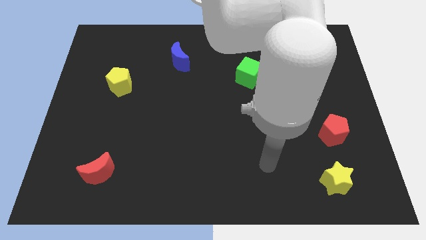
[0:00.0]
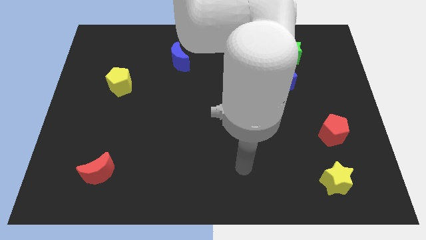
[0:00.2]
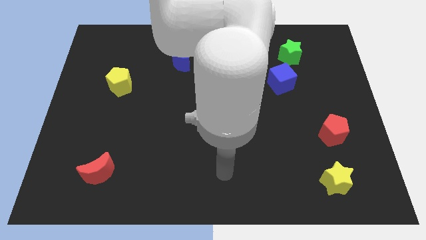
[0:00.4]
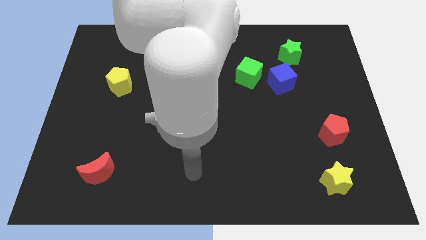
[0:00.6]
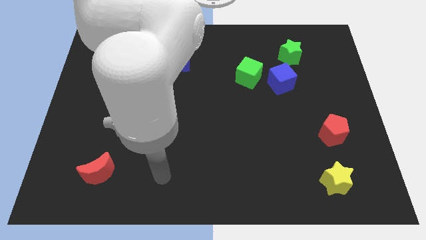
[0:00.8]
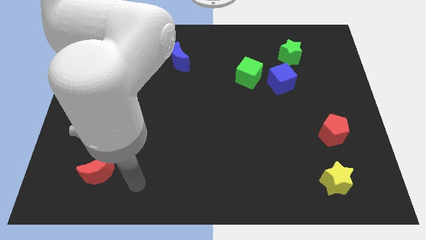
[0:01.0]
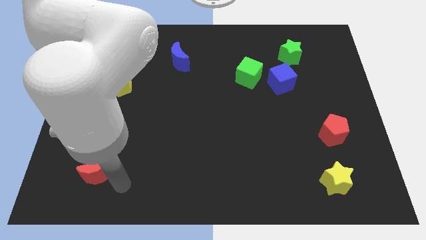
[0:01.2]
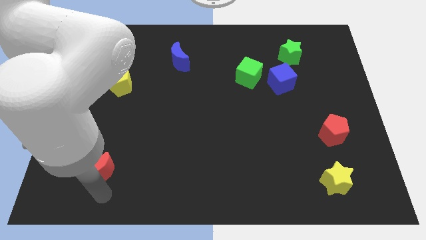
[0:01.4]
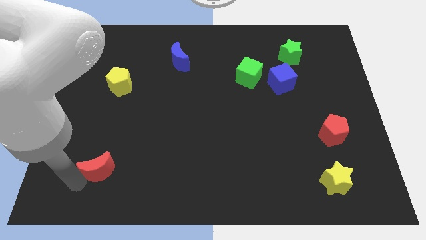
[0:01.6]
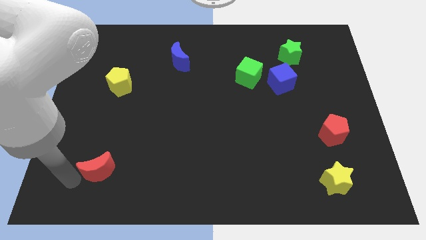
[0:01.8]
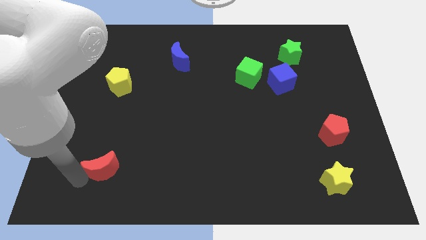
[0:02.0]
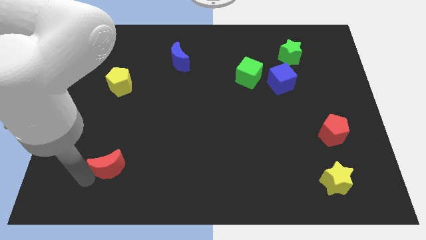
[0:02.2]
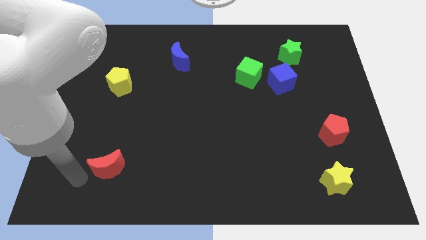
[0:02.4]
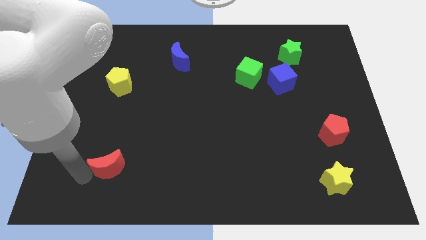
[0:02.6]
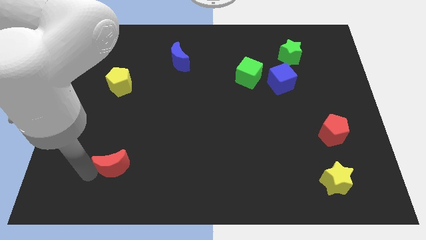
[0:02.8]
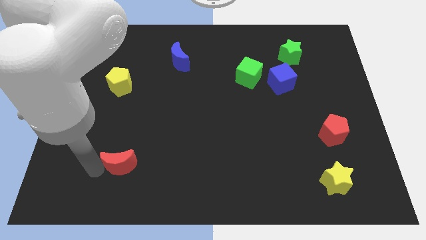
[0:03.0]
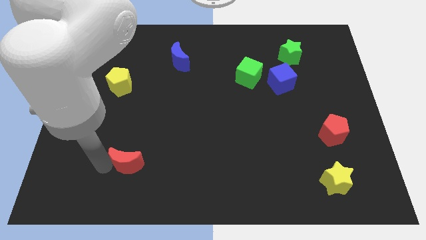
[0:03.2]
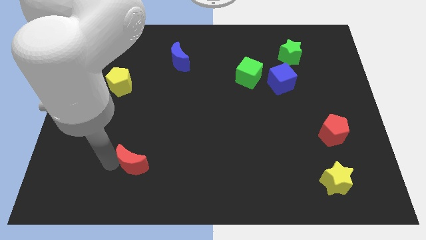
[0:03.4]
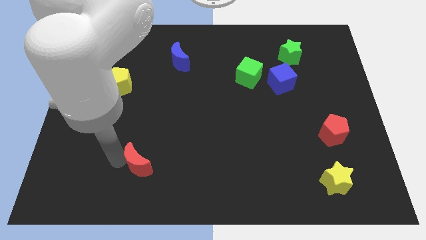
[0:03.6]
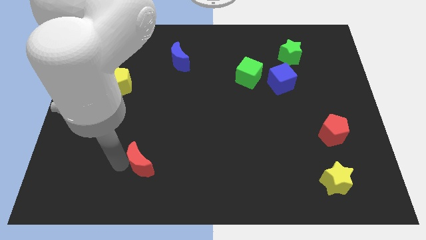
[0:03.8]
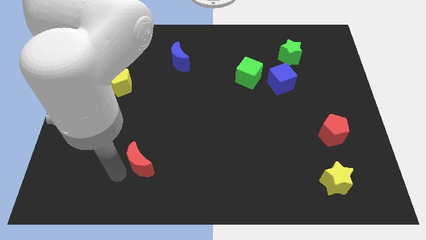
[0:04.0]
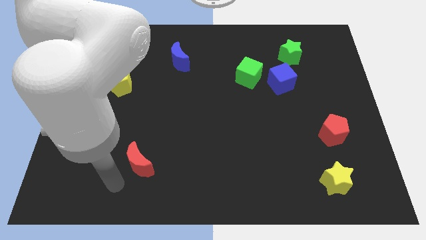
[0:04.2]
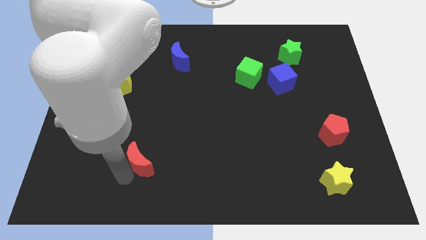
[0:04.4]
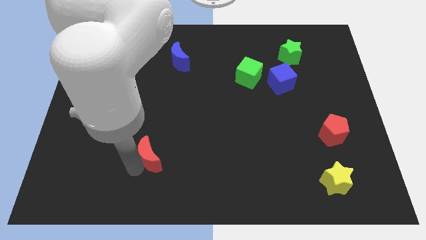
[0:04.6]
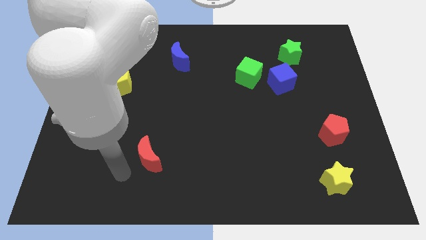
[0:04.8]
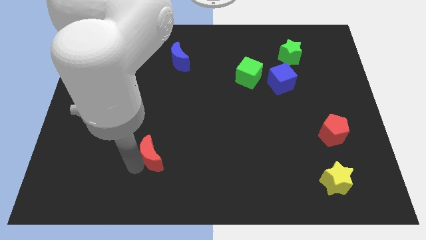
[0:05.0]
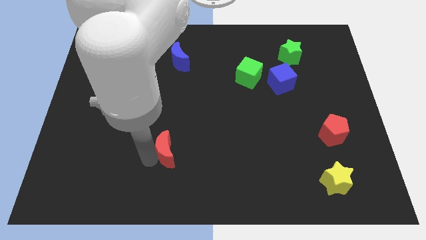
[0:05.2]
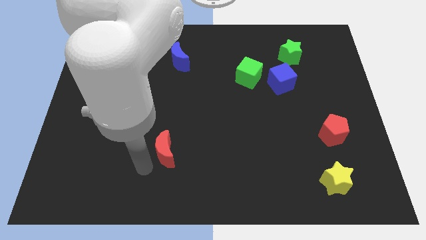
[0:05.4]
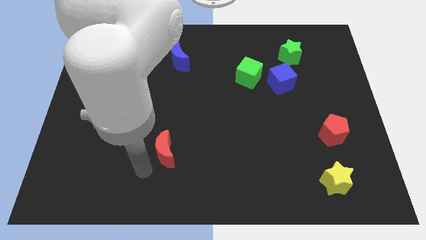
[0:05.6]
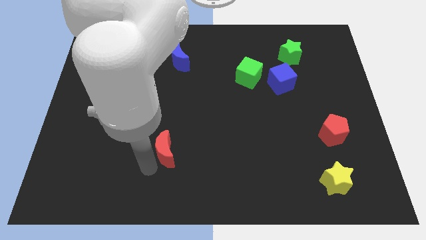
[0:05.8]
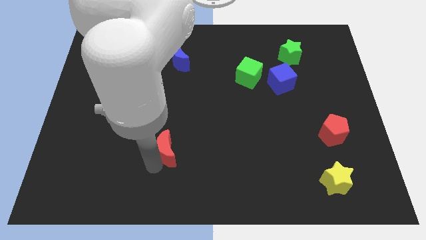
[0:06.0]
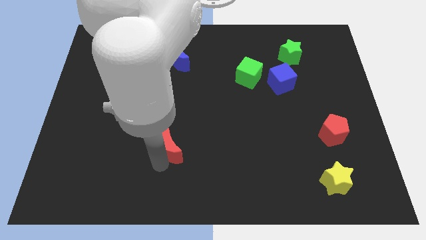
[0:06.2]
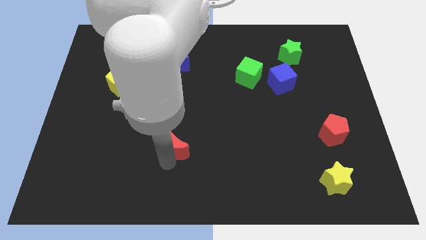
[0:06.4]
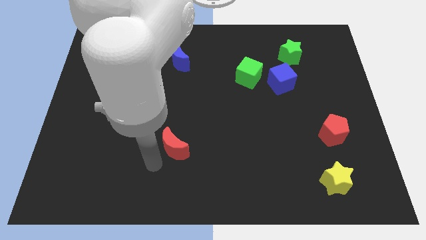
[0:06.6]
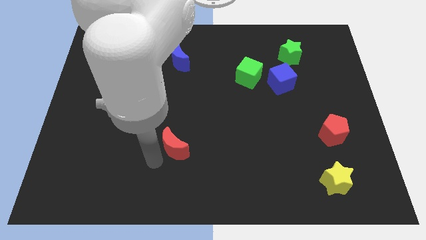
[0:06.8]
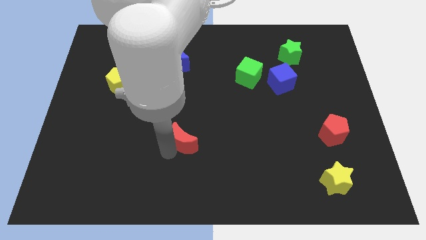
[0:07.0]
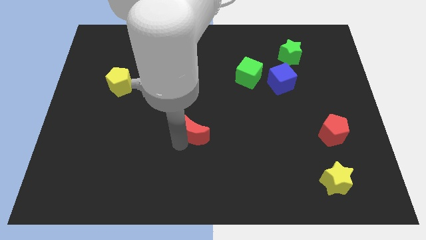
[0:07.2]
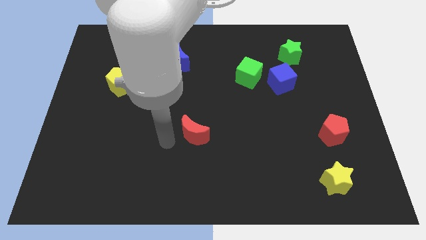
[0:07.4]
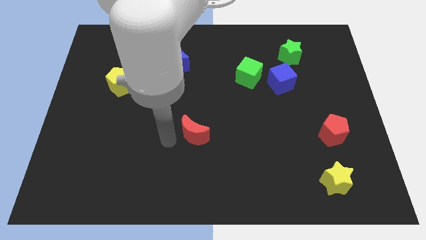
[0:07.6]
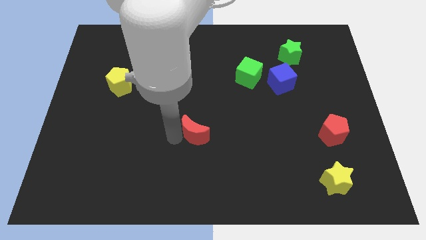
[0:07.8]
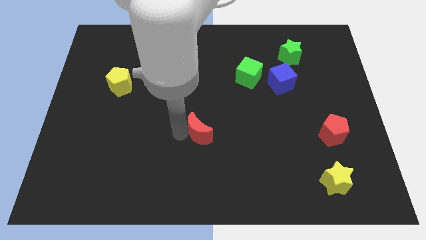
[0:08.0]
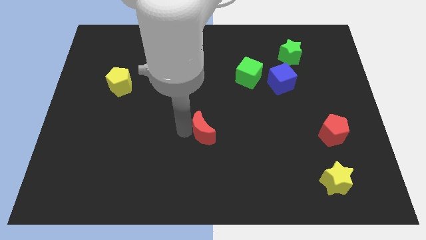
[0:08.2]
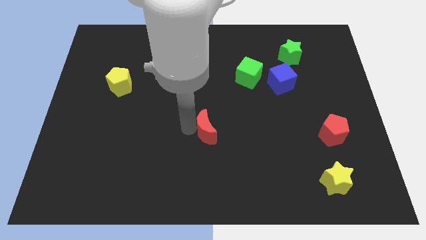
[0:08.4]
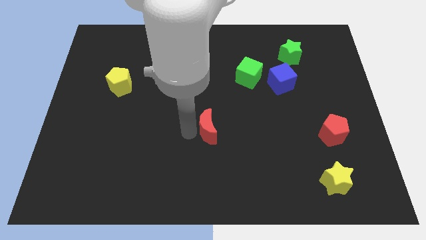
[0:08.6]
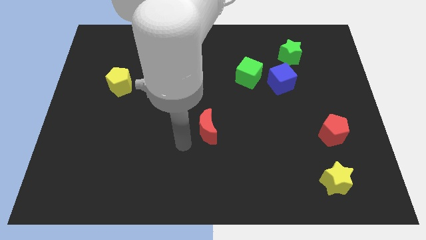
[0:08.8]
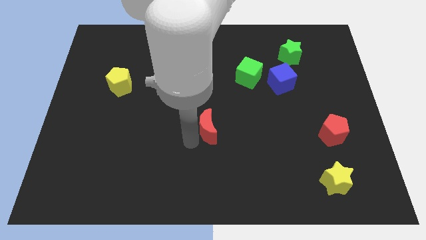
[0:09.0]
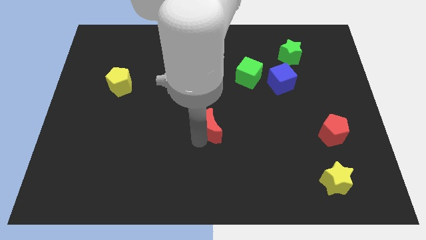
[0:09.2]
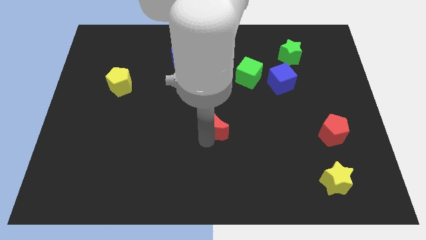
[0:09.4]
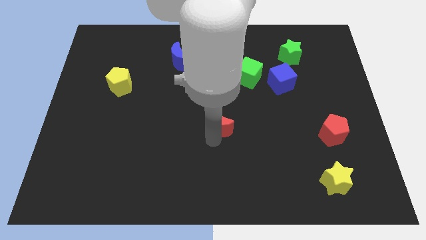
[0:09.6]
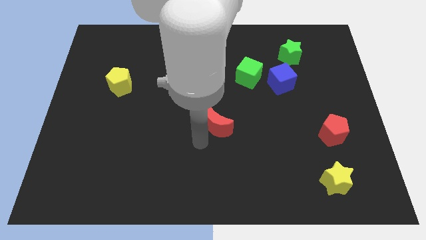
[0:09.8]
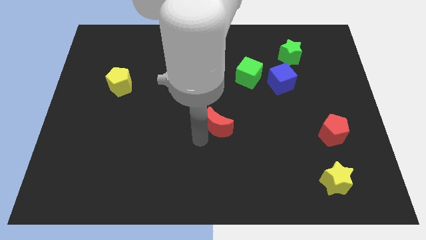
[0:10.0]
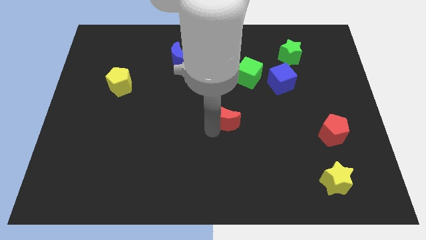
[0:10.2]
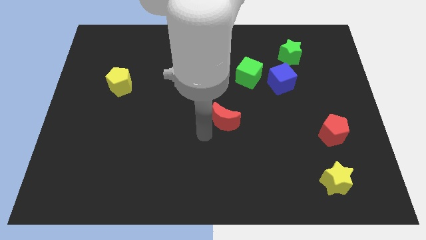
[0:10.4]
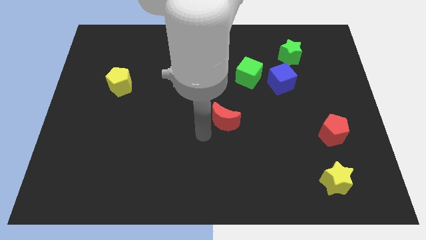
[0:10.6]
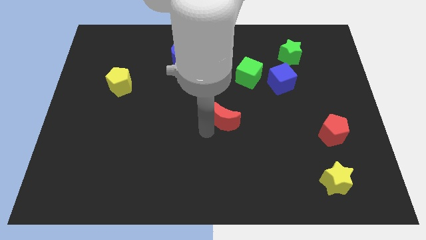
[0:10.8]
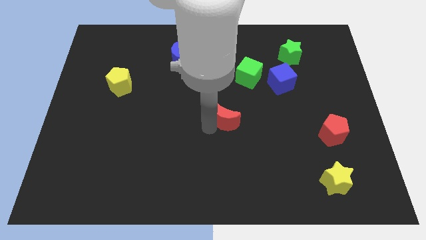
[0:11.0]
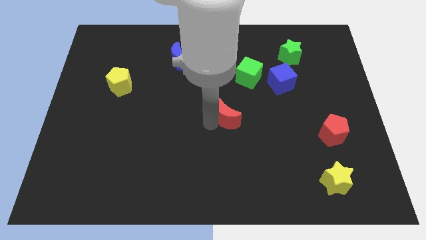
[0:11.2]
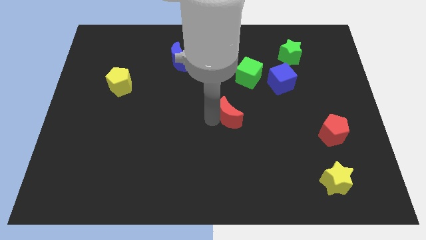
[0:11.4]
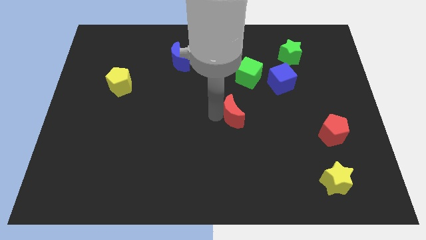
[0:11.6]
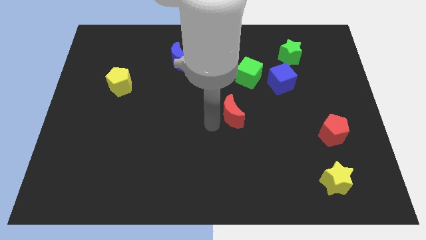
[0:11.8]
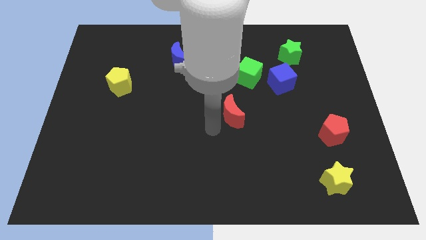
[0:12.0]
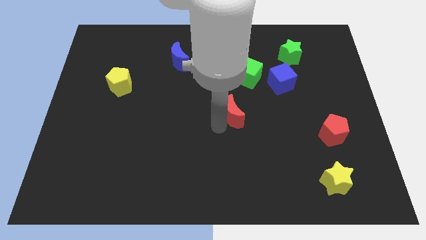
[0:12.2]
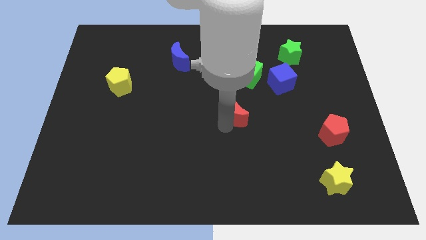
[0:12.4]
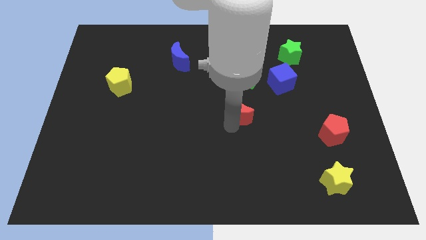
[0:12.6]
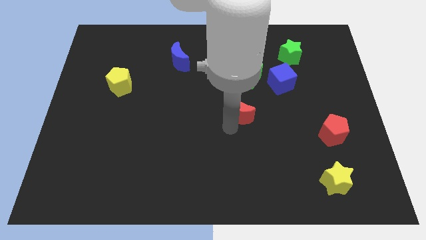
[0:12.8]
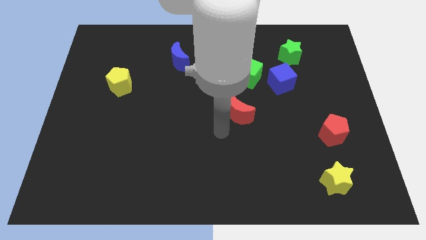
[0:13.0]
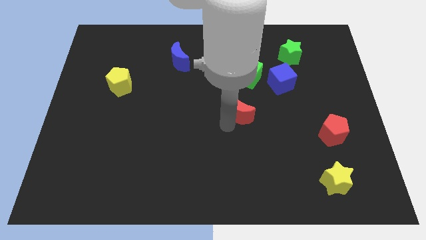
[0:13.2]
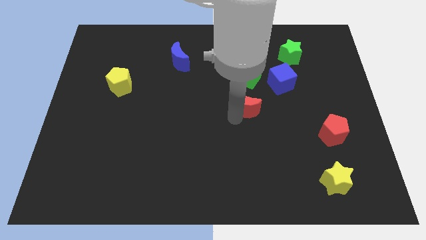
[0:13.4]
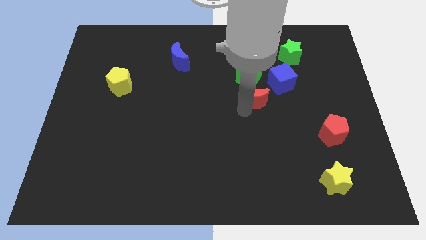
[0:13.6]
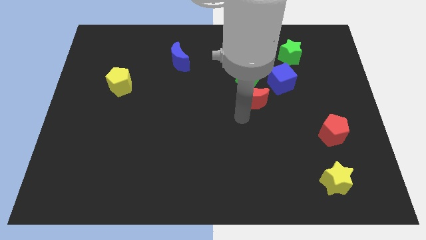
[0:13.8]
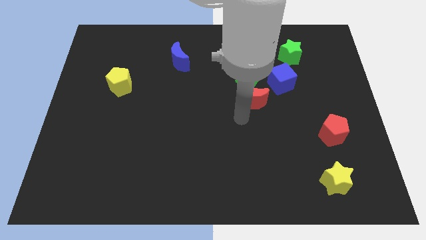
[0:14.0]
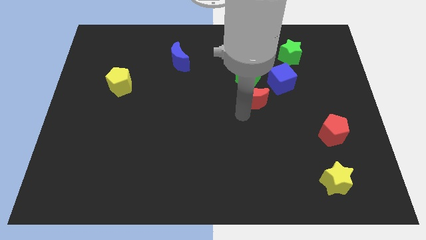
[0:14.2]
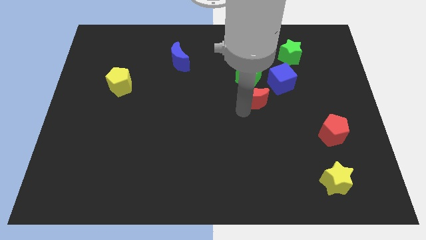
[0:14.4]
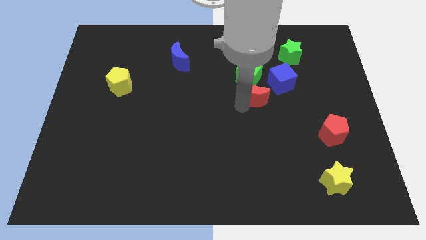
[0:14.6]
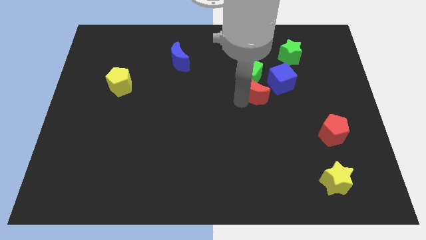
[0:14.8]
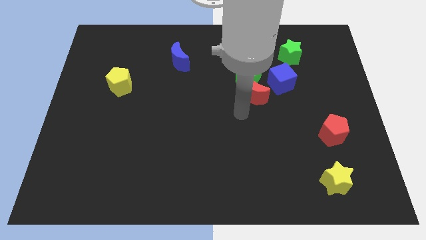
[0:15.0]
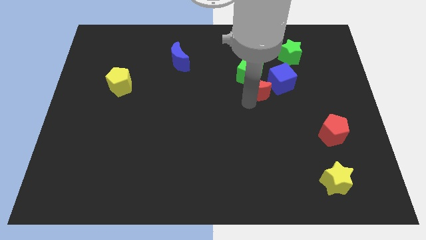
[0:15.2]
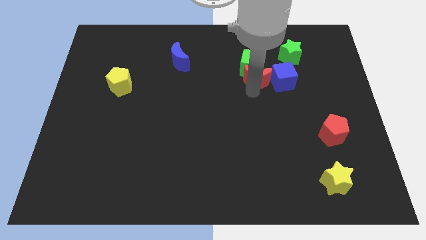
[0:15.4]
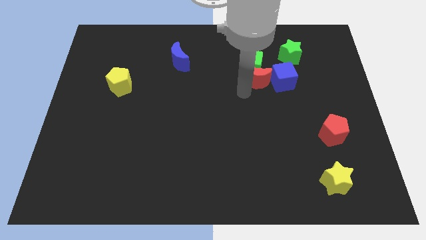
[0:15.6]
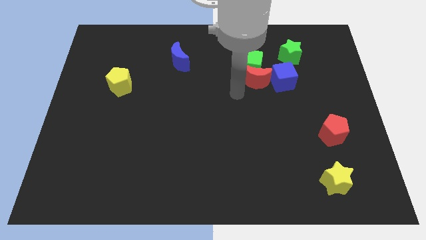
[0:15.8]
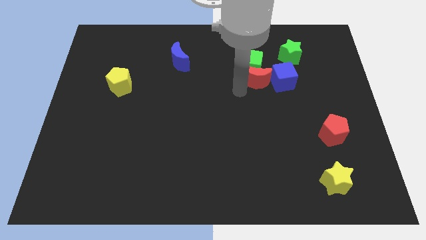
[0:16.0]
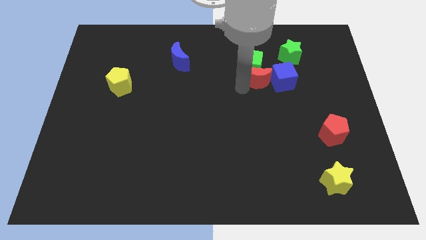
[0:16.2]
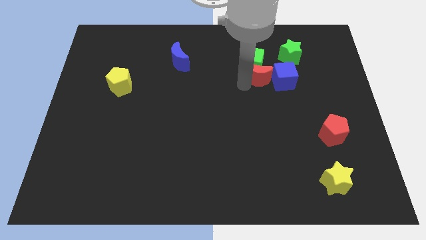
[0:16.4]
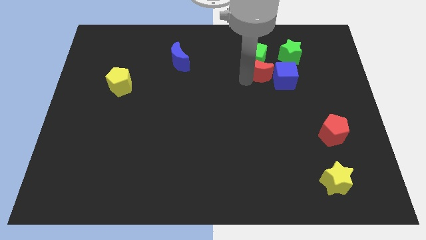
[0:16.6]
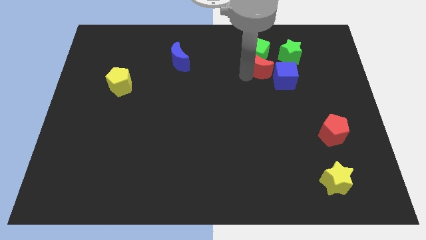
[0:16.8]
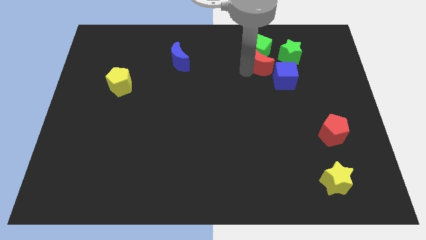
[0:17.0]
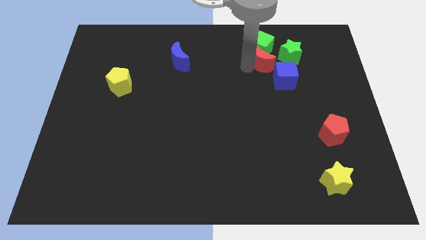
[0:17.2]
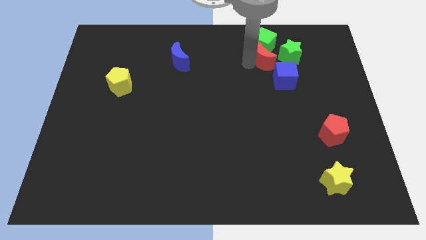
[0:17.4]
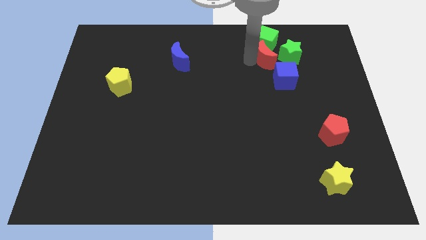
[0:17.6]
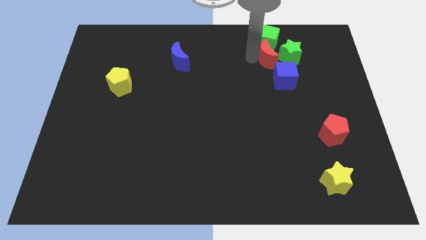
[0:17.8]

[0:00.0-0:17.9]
slide the red moon towards the green star
